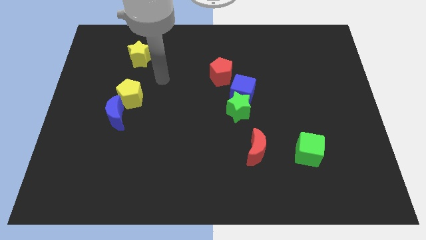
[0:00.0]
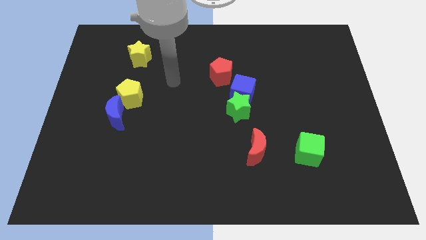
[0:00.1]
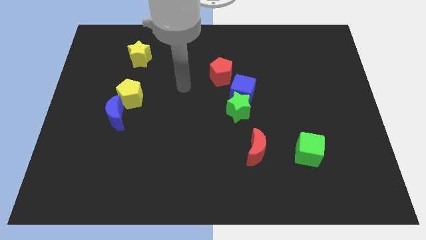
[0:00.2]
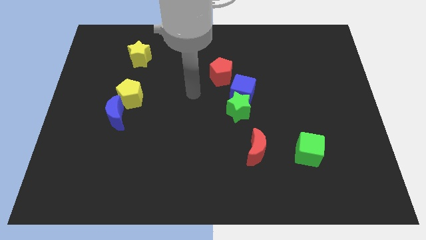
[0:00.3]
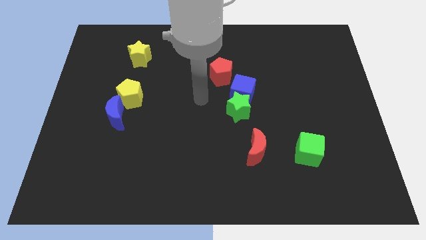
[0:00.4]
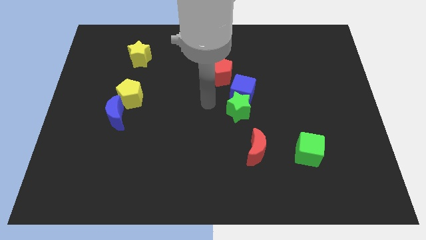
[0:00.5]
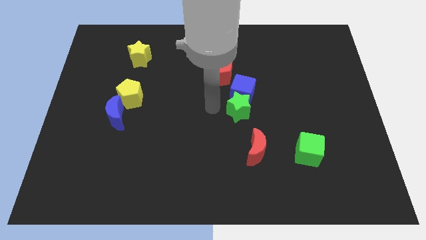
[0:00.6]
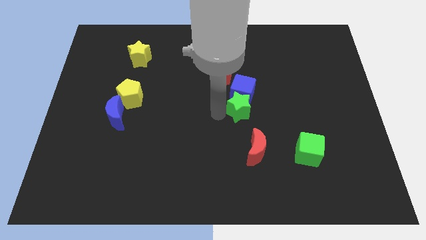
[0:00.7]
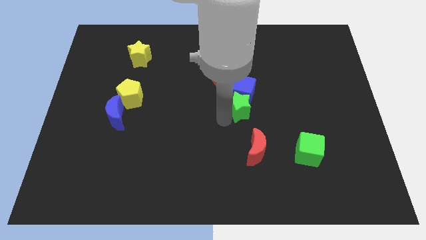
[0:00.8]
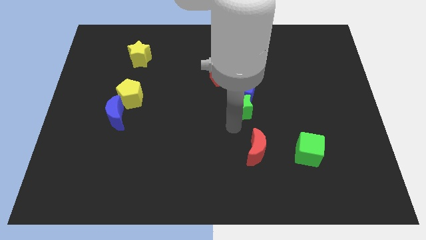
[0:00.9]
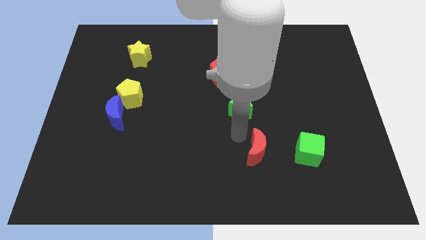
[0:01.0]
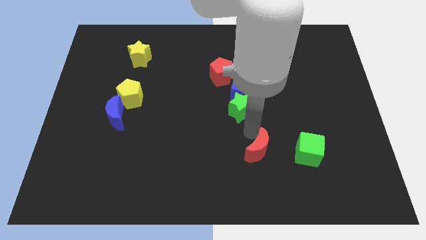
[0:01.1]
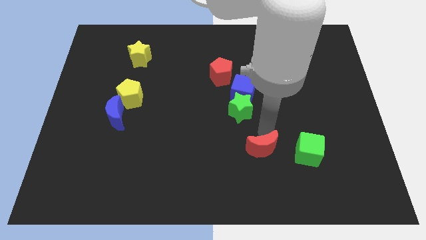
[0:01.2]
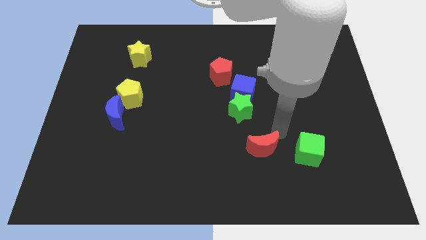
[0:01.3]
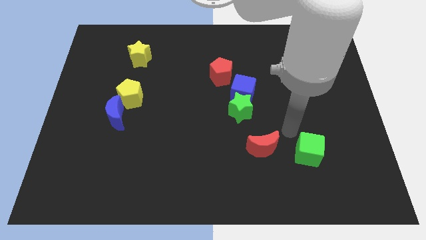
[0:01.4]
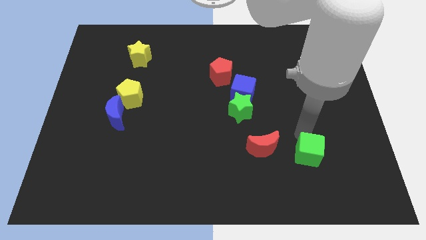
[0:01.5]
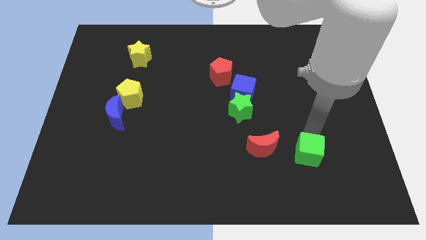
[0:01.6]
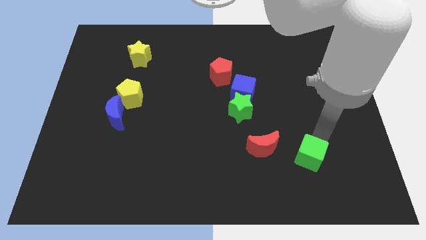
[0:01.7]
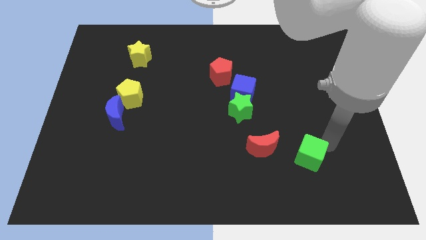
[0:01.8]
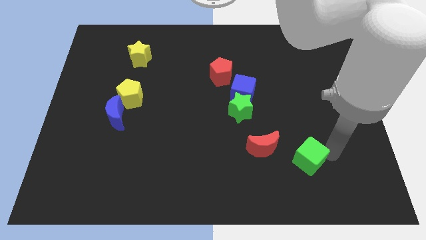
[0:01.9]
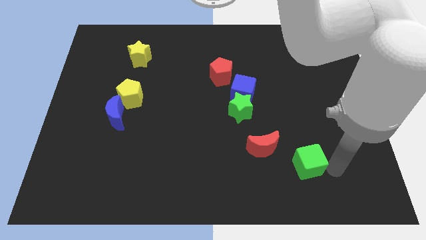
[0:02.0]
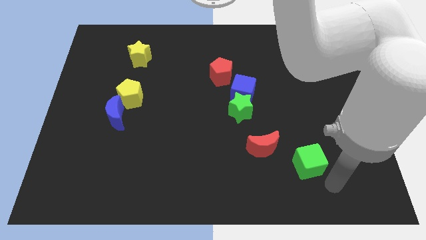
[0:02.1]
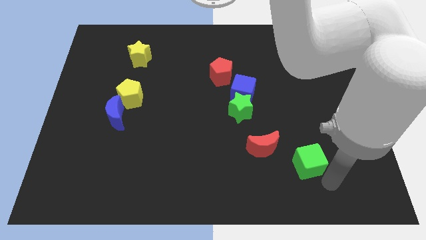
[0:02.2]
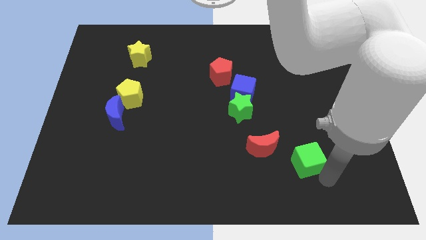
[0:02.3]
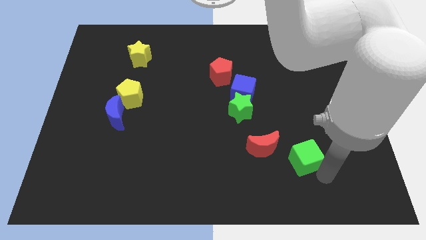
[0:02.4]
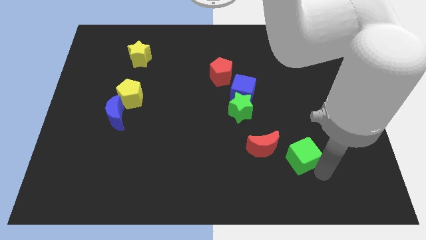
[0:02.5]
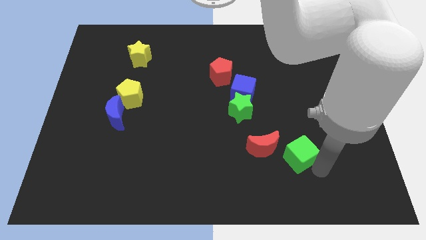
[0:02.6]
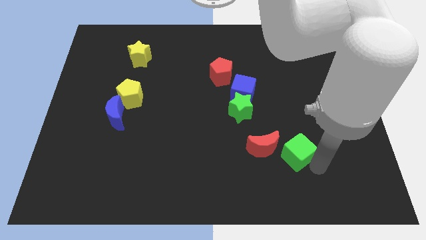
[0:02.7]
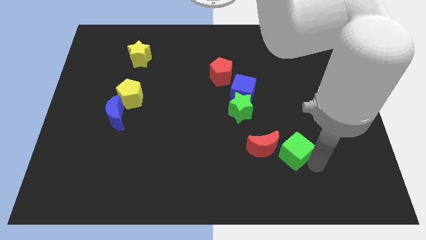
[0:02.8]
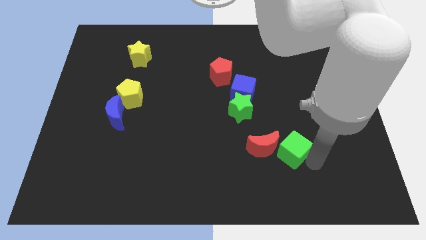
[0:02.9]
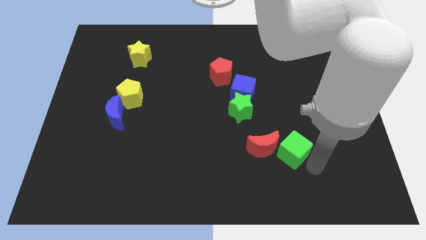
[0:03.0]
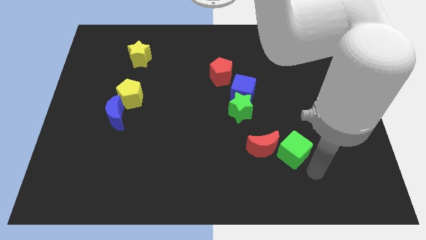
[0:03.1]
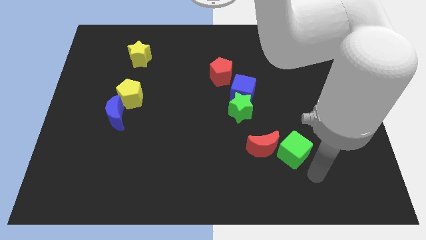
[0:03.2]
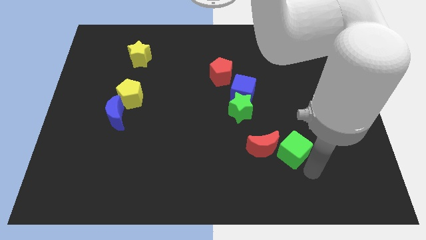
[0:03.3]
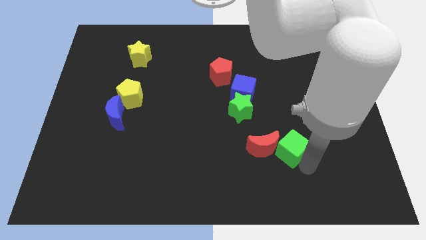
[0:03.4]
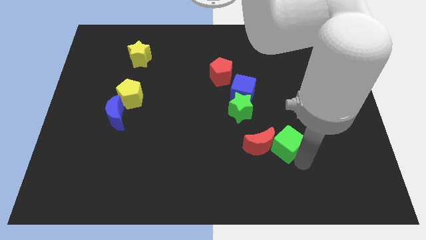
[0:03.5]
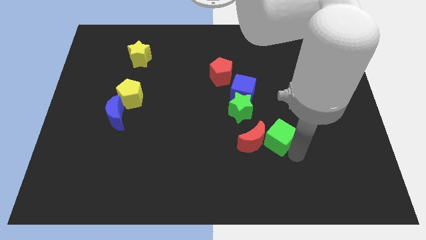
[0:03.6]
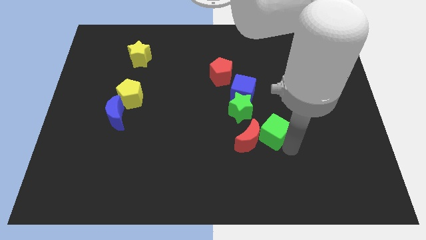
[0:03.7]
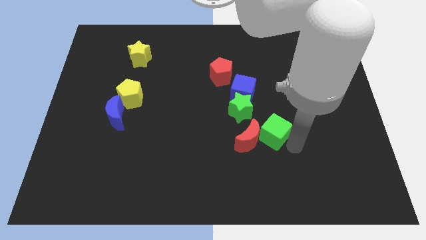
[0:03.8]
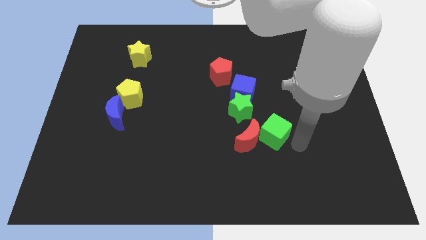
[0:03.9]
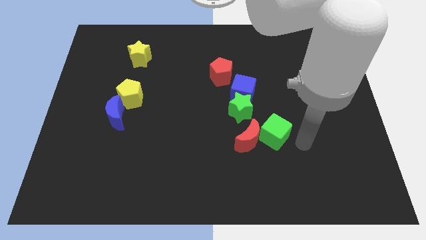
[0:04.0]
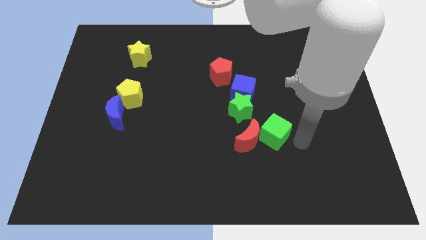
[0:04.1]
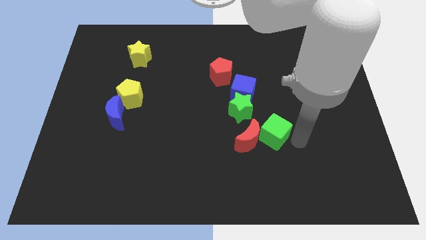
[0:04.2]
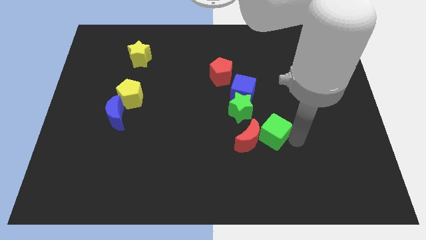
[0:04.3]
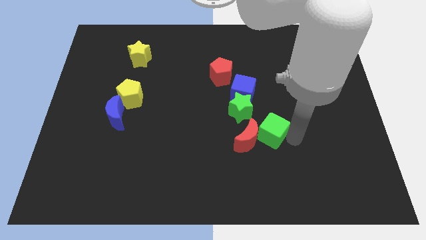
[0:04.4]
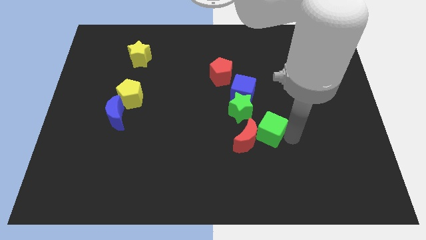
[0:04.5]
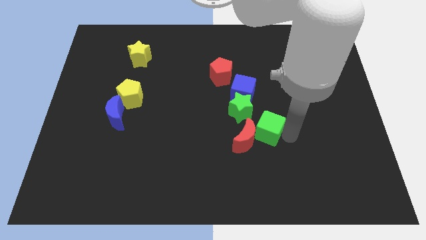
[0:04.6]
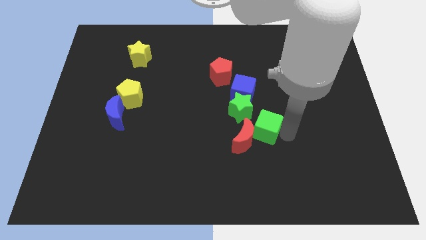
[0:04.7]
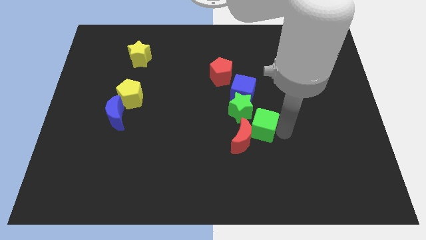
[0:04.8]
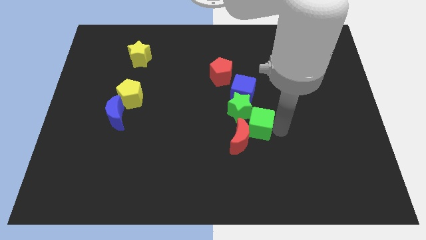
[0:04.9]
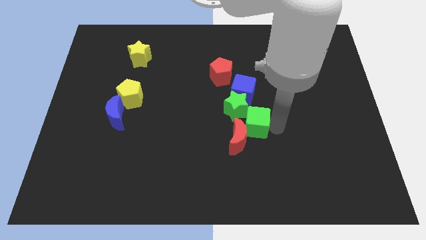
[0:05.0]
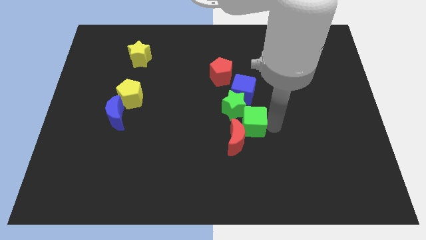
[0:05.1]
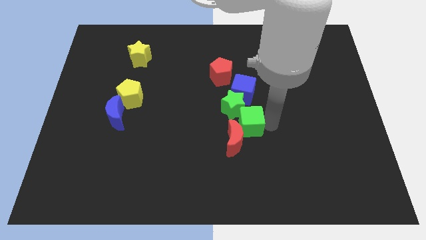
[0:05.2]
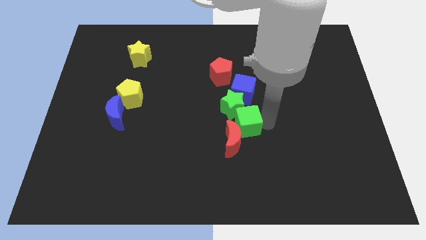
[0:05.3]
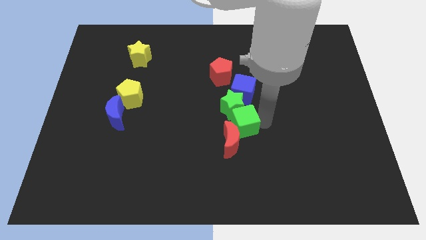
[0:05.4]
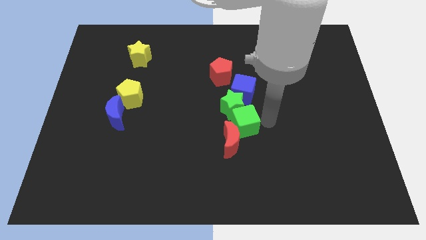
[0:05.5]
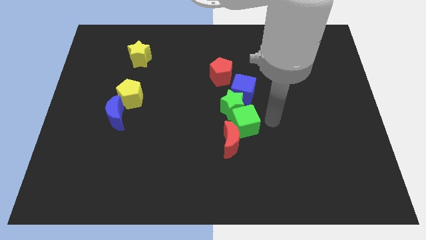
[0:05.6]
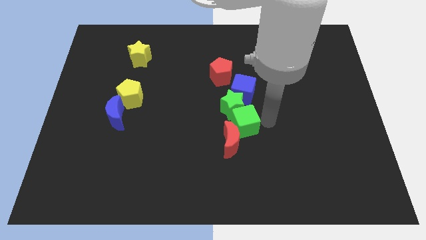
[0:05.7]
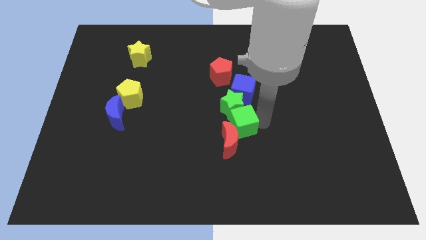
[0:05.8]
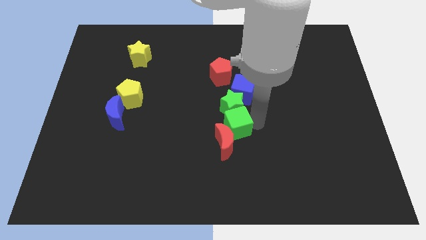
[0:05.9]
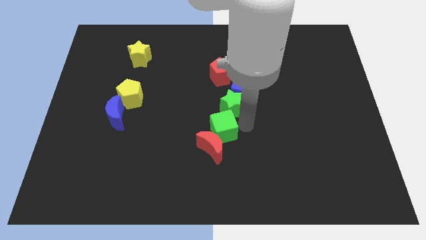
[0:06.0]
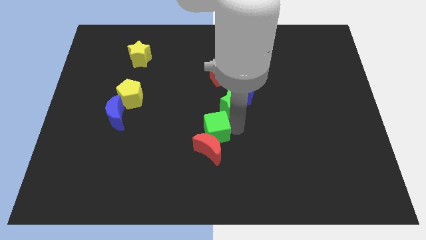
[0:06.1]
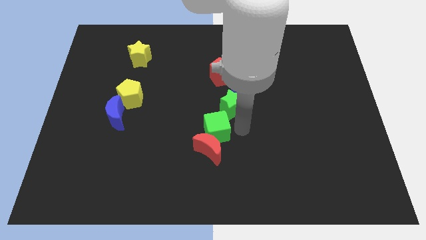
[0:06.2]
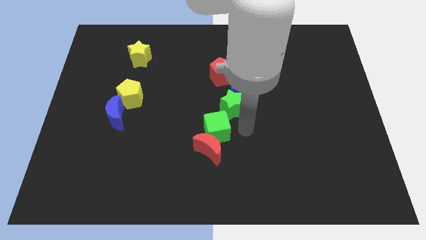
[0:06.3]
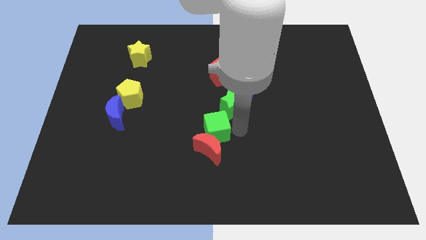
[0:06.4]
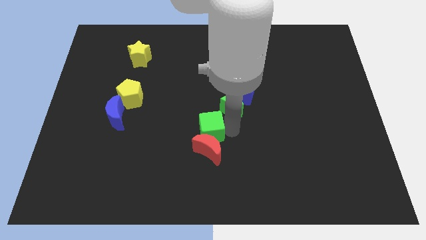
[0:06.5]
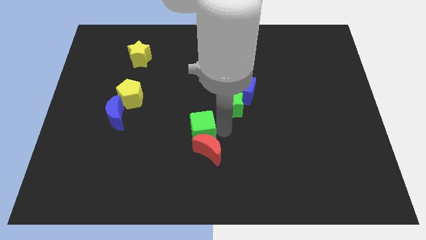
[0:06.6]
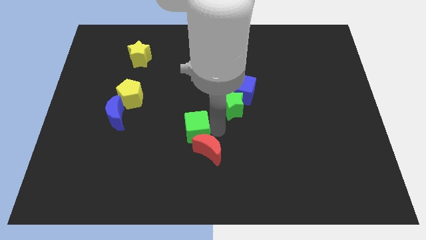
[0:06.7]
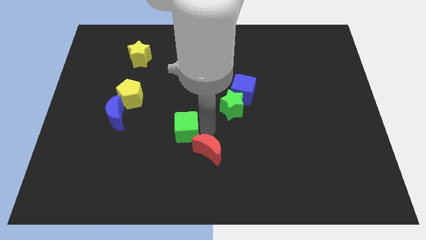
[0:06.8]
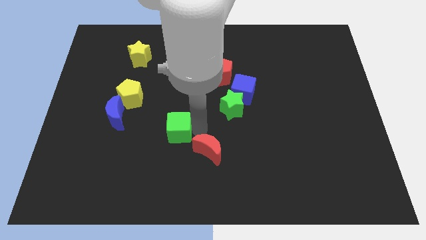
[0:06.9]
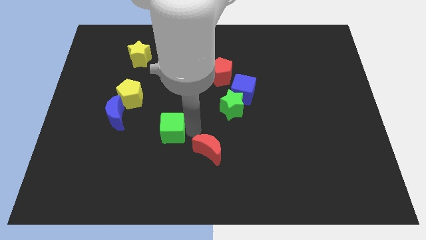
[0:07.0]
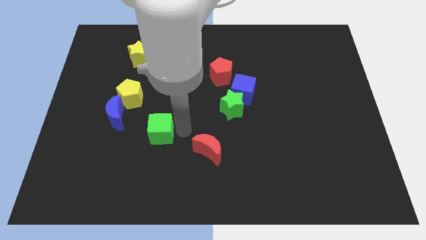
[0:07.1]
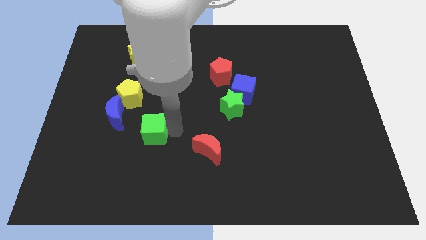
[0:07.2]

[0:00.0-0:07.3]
slide the green cube diagonally down and to the right of the blue moon
